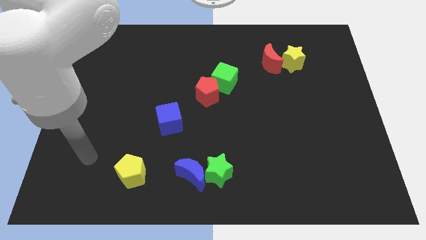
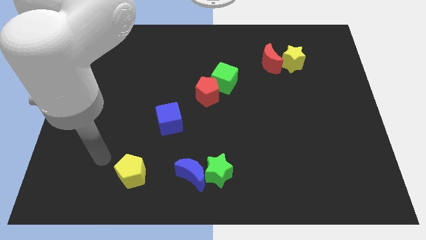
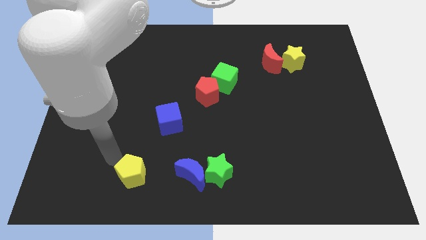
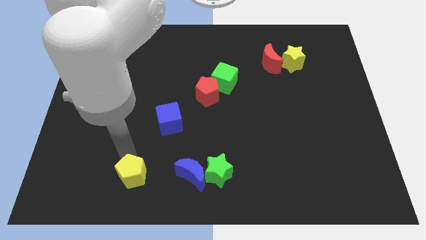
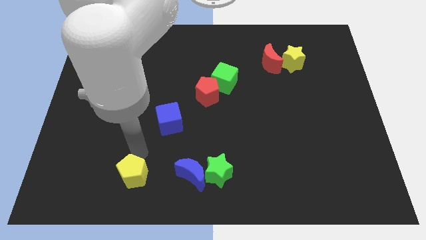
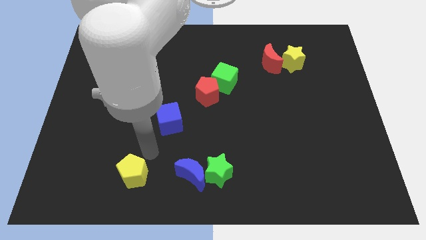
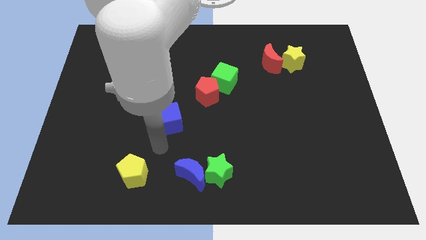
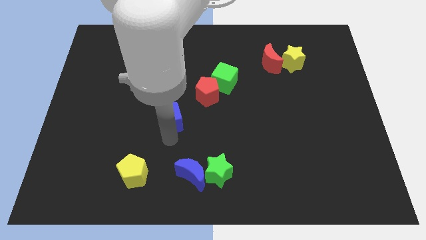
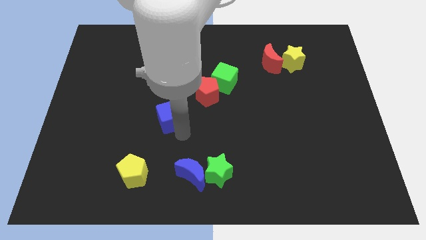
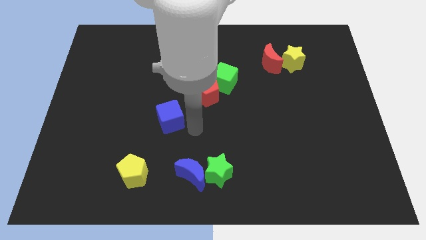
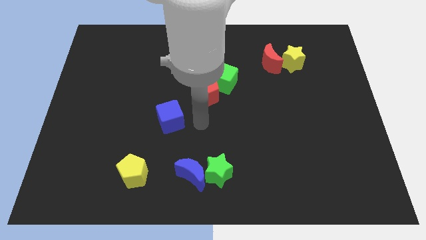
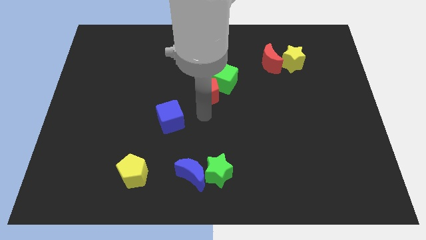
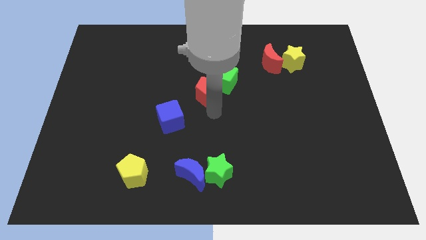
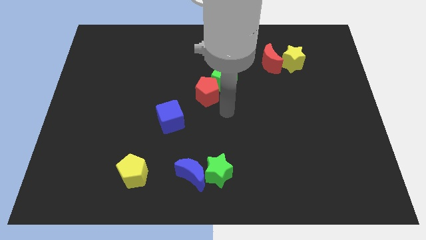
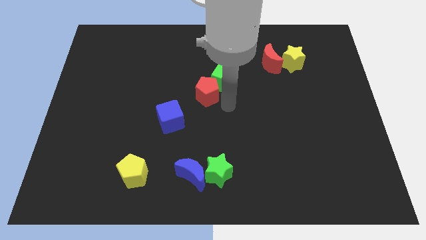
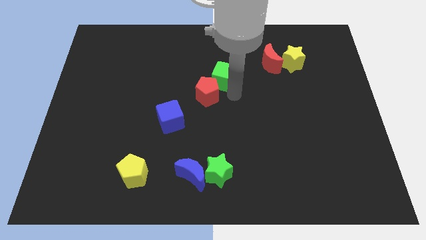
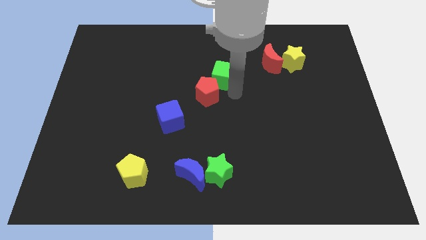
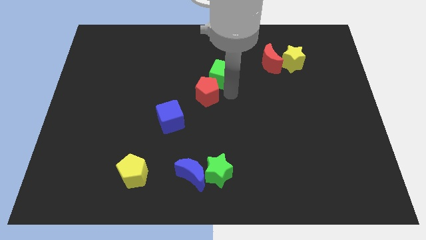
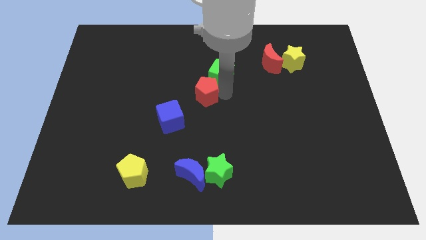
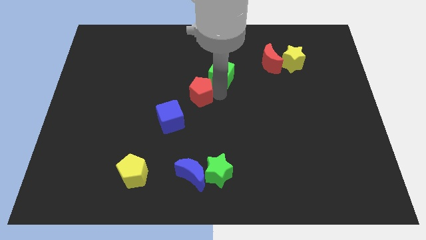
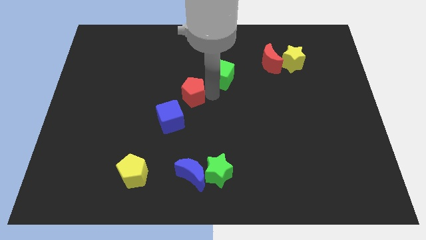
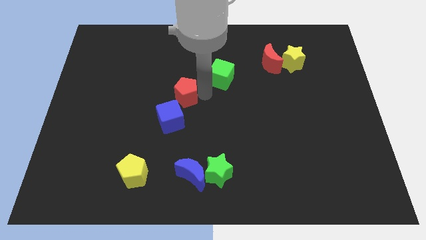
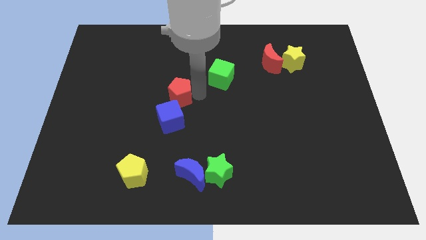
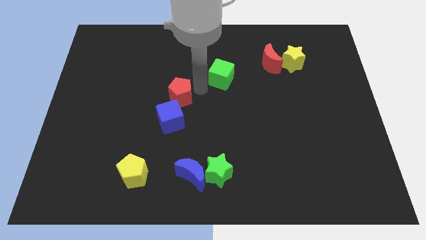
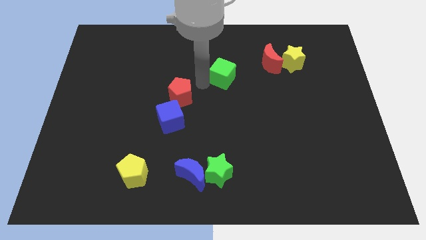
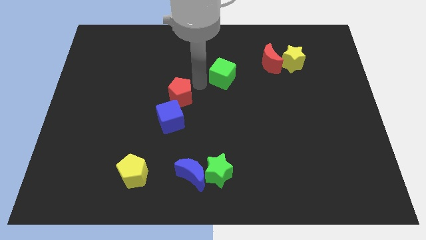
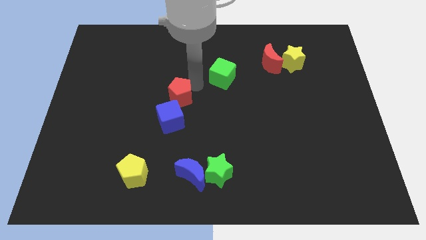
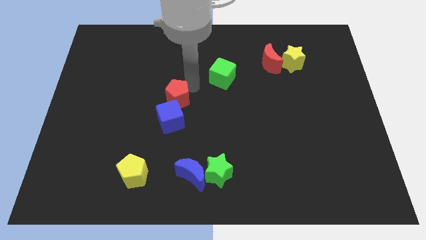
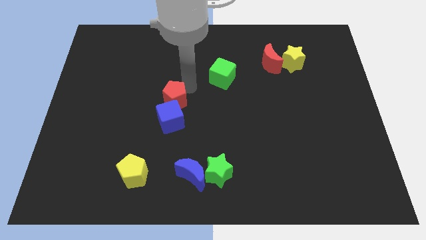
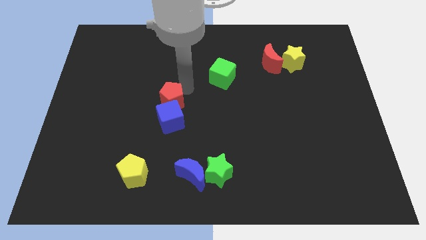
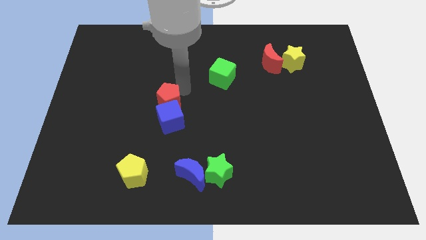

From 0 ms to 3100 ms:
move the red pentagon diagonally downwards and to the left slightly

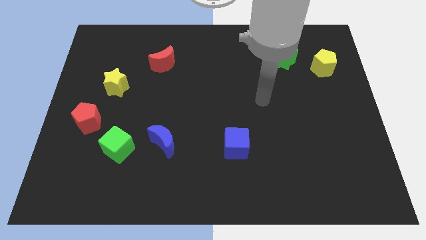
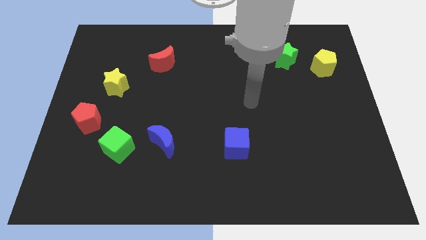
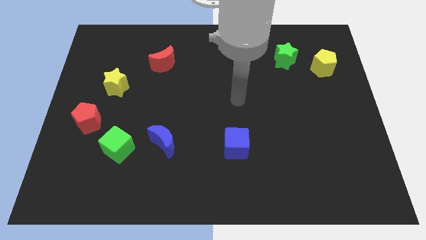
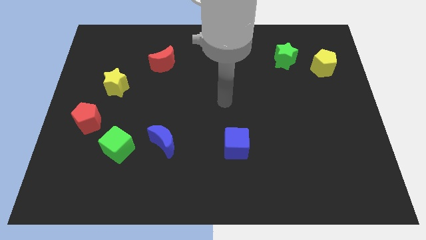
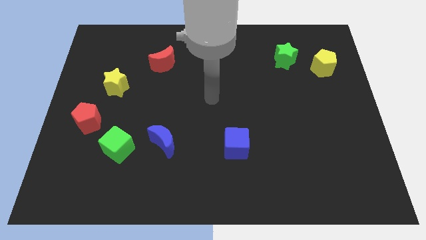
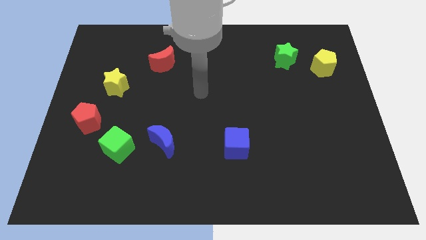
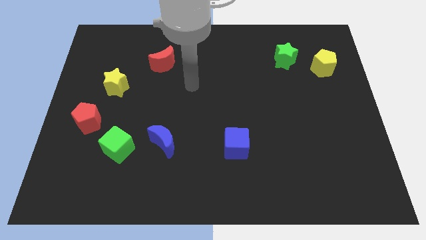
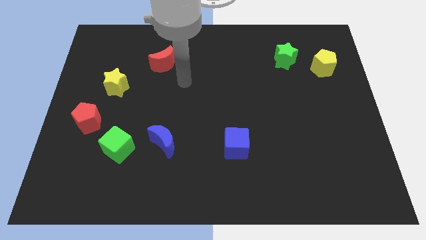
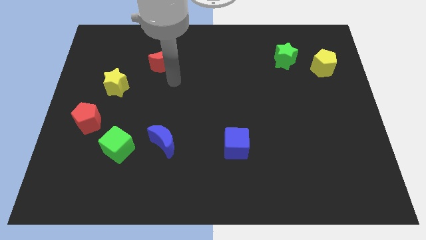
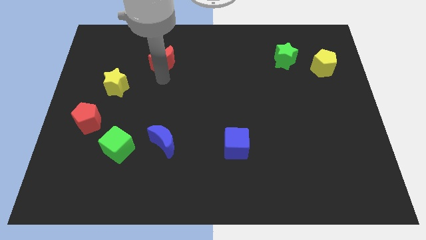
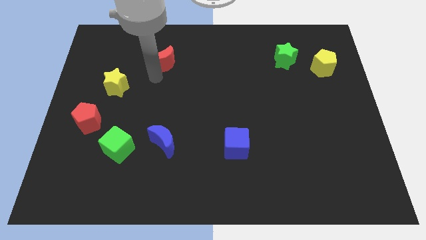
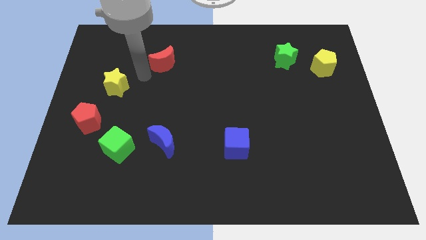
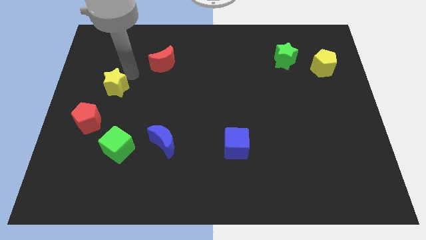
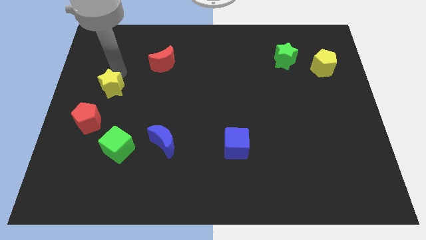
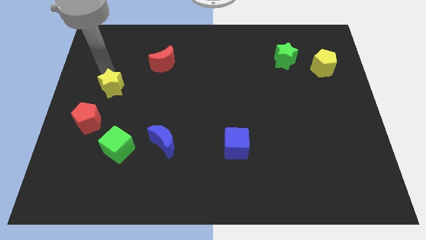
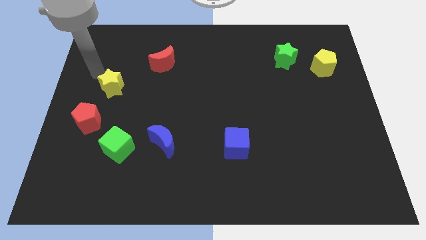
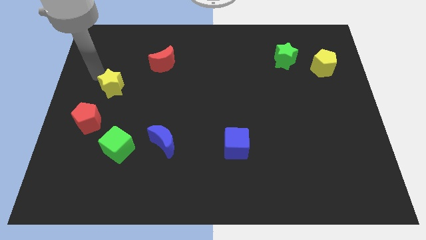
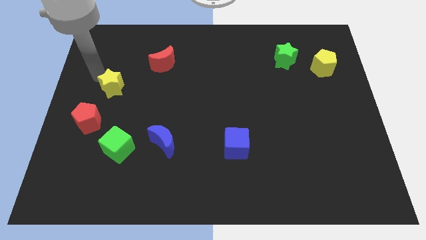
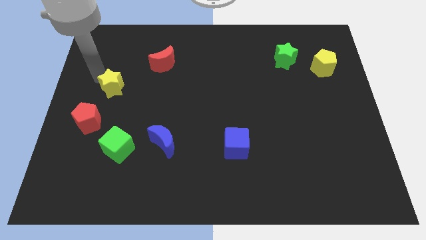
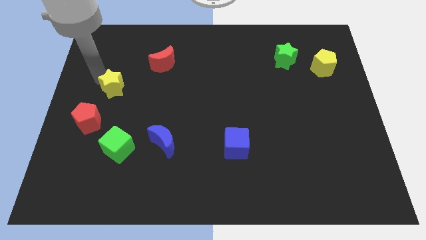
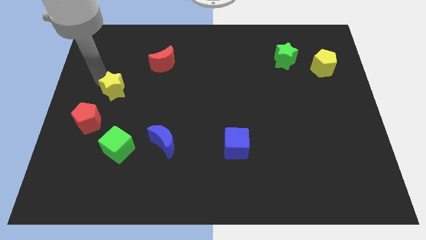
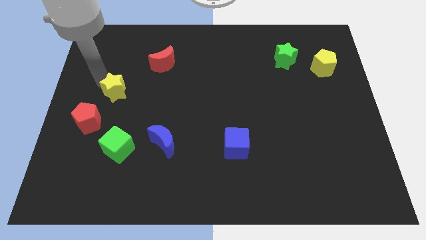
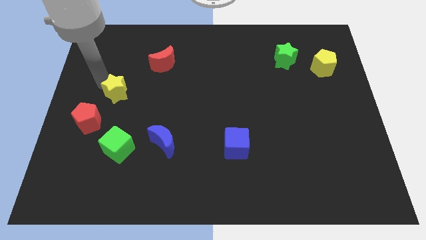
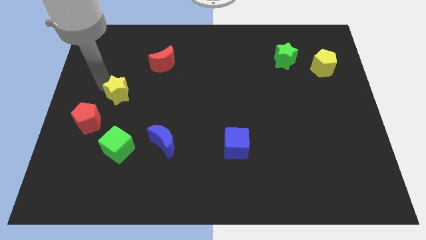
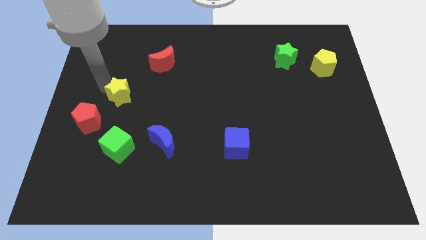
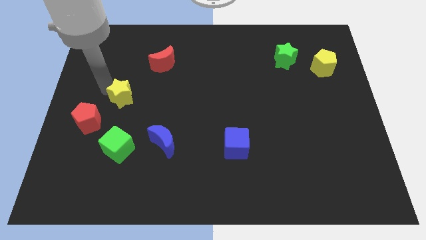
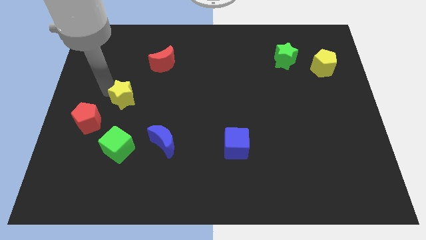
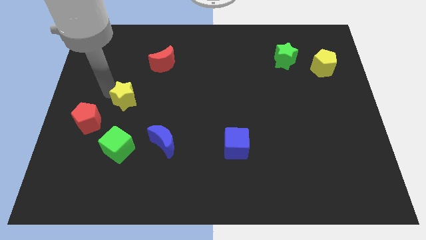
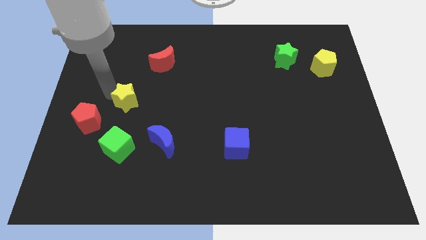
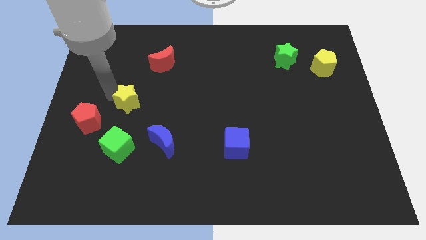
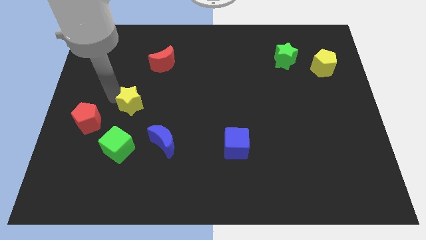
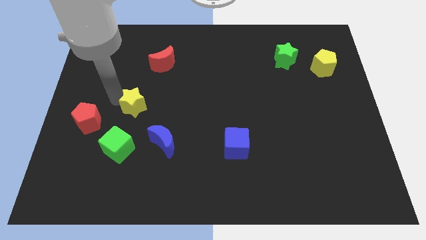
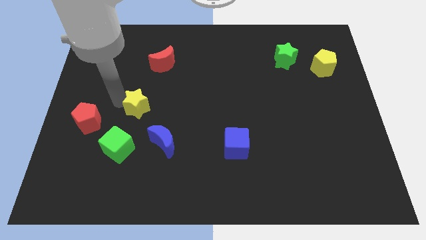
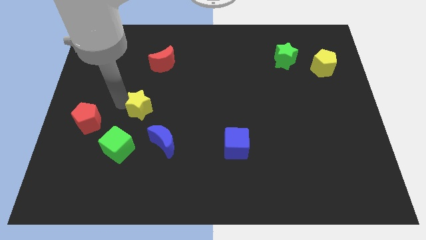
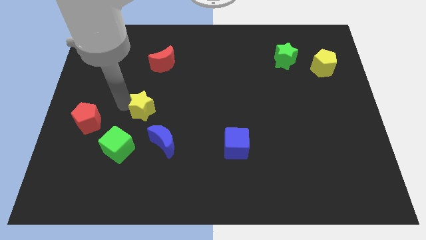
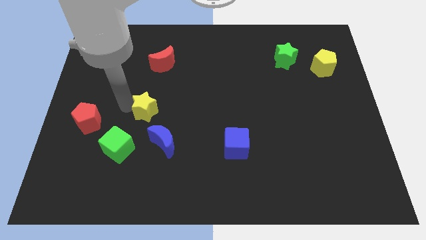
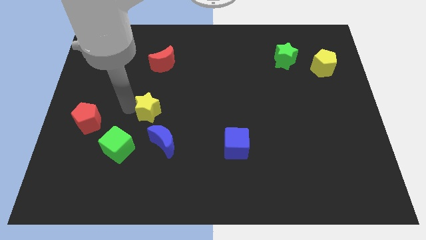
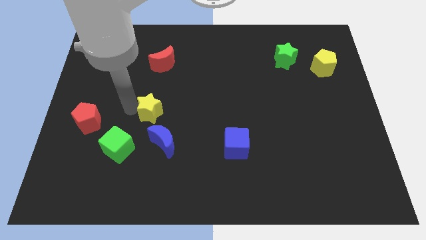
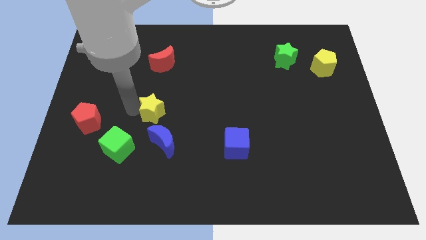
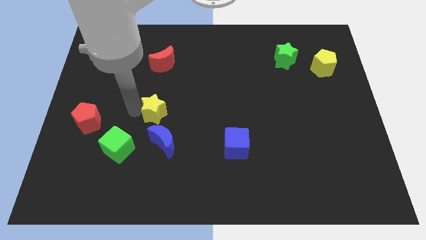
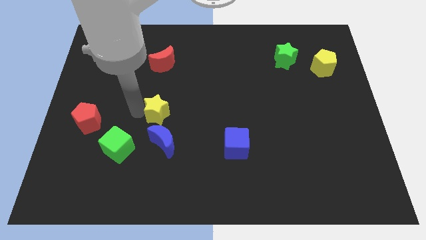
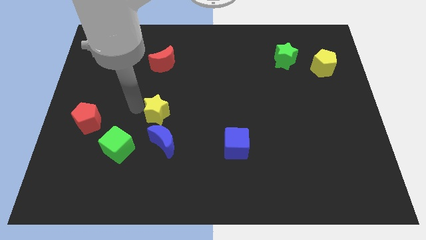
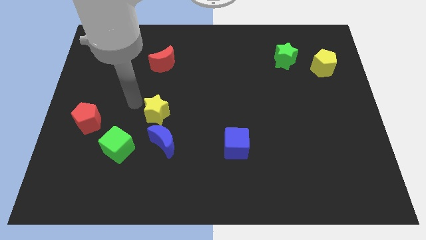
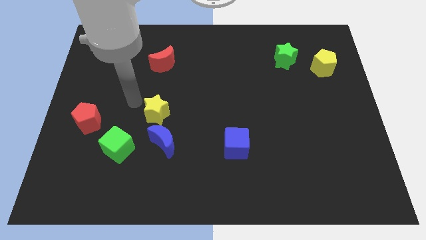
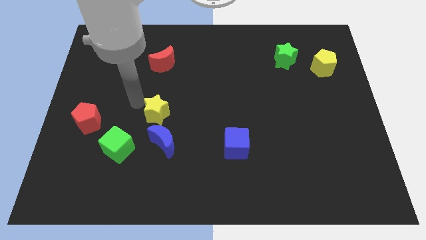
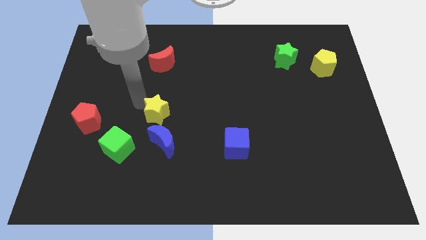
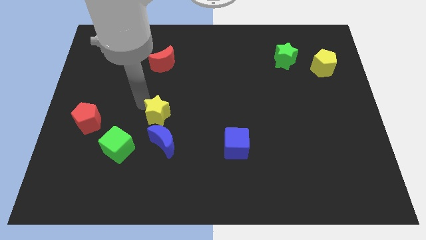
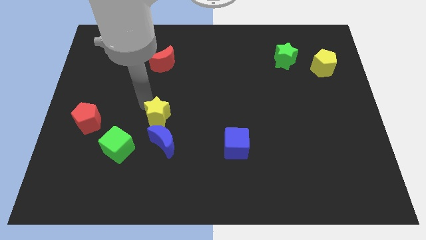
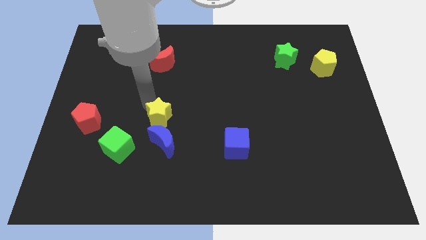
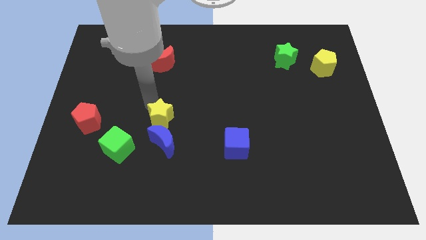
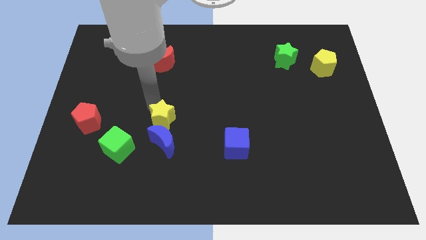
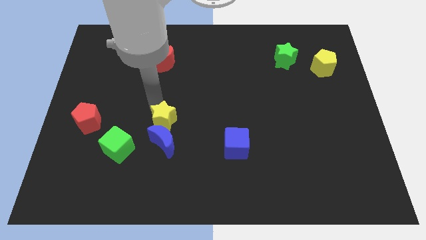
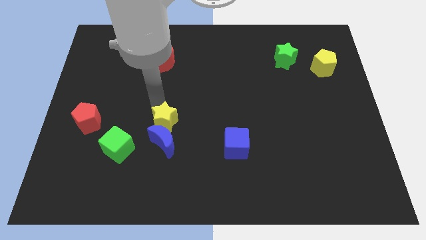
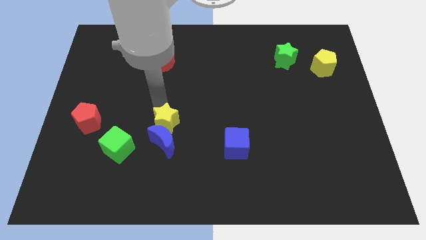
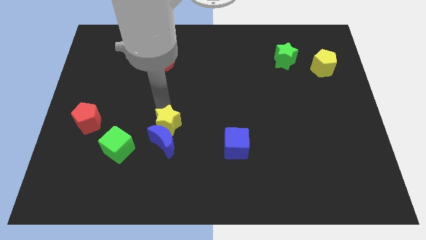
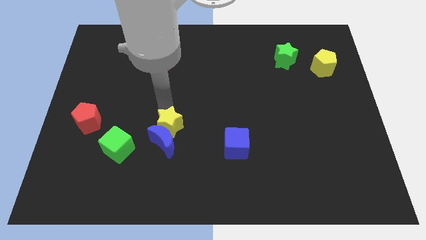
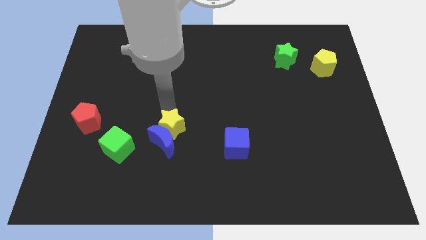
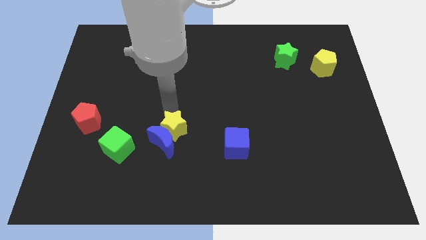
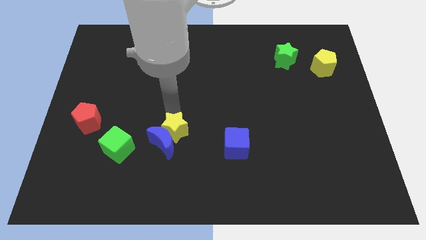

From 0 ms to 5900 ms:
move the yellow star diagonally downwards and to the right
